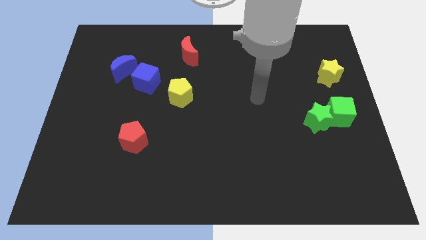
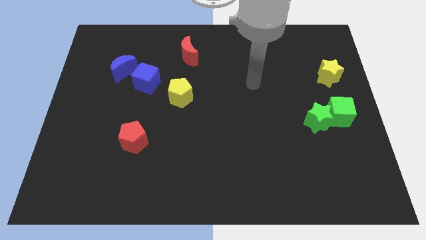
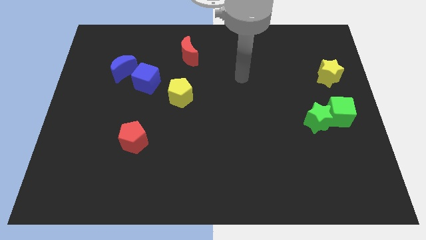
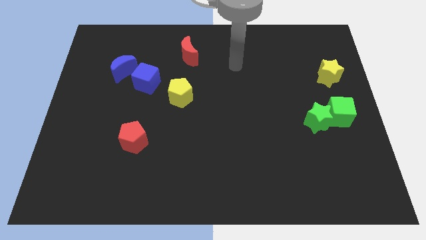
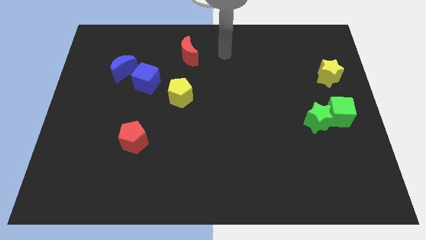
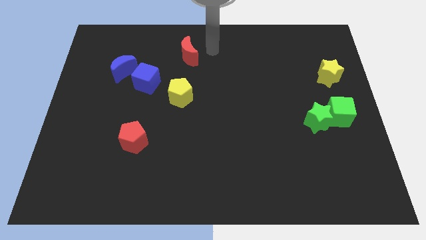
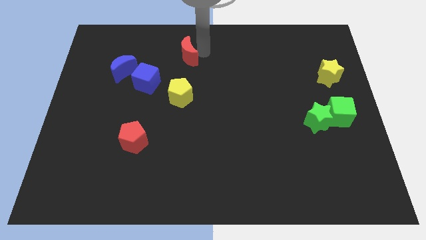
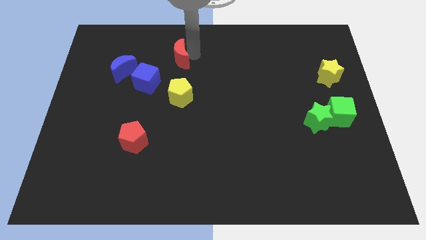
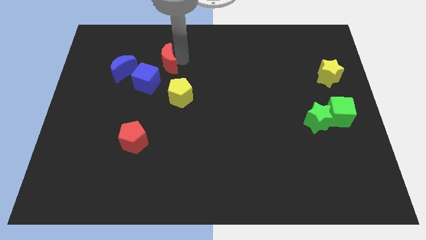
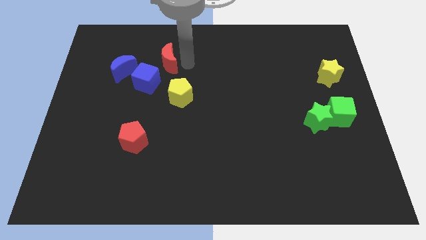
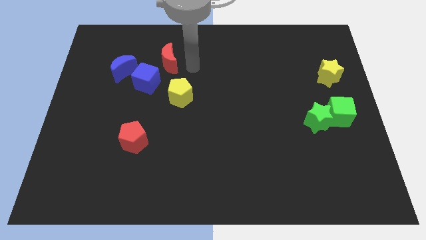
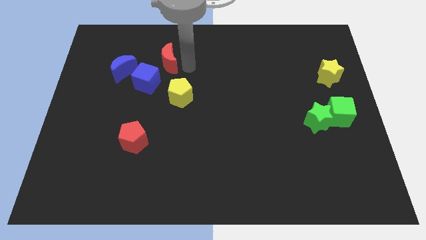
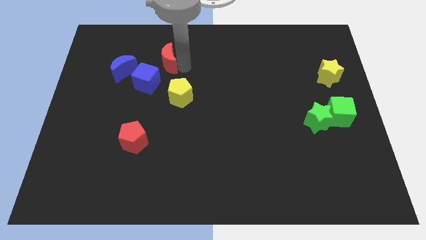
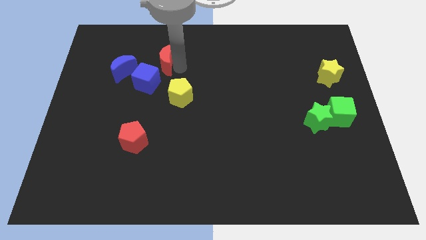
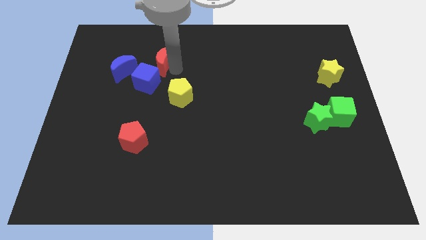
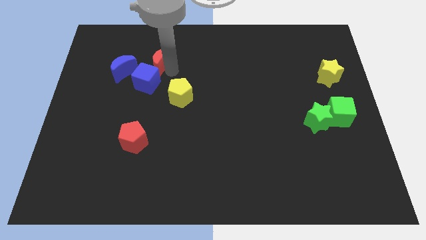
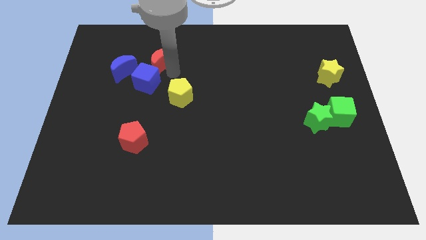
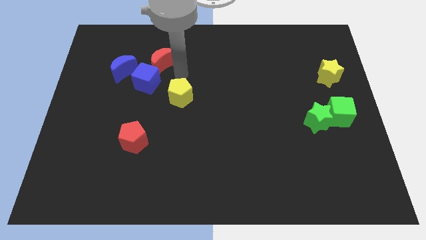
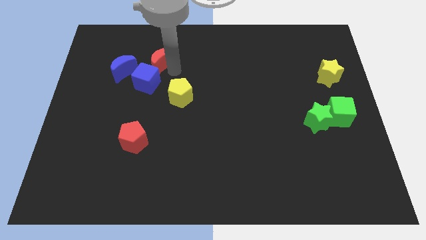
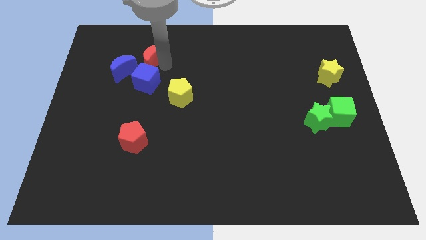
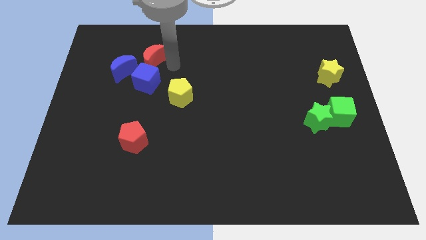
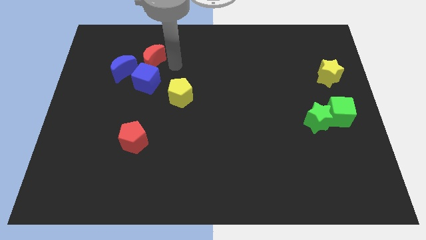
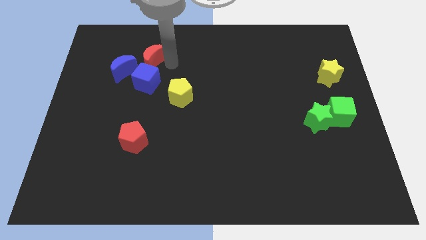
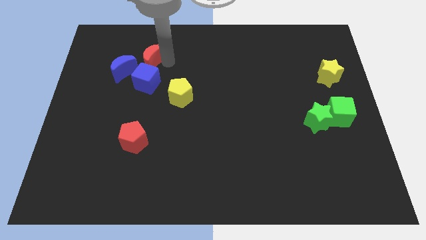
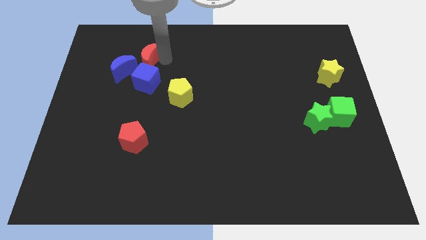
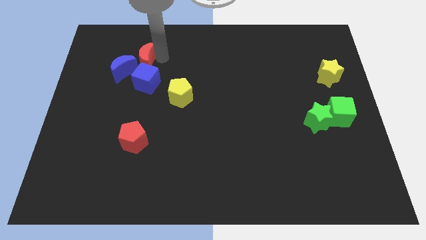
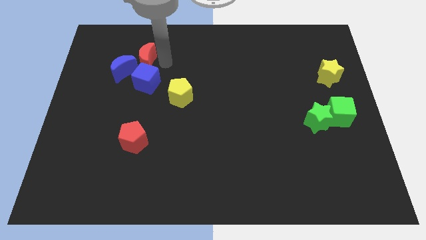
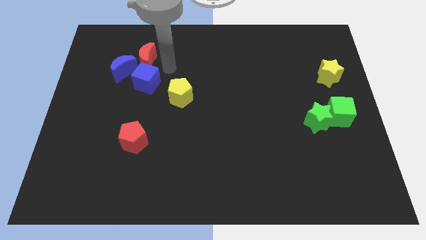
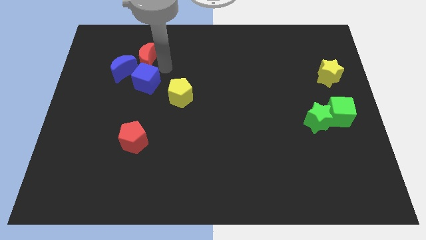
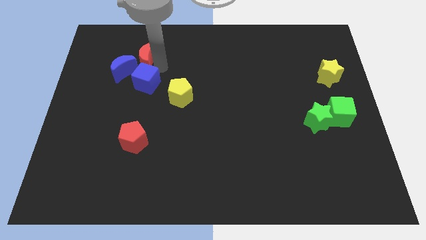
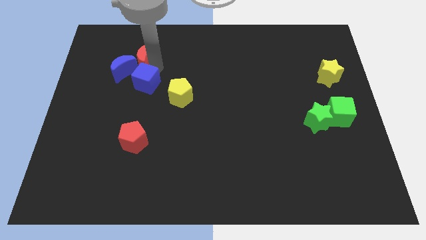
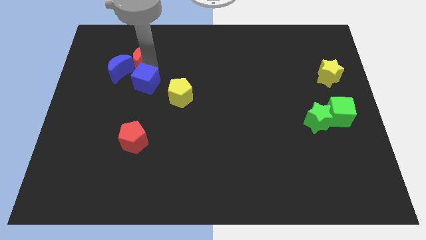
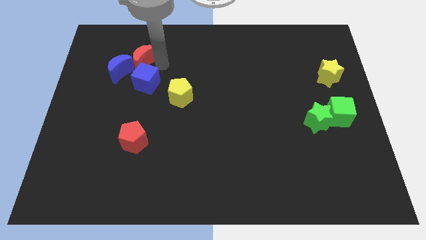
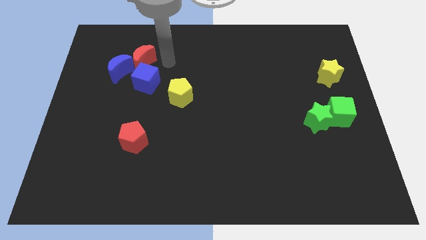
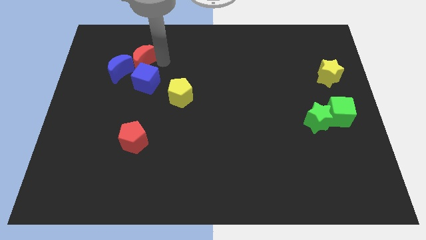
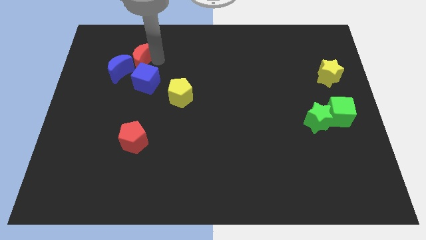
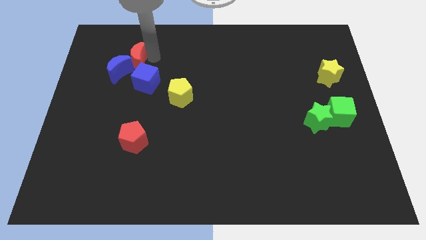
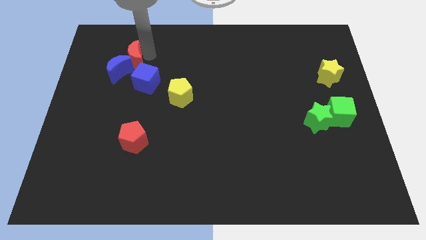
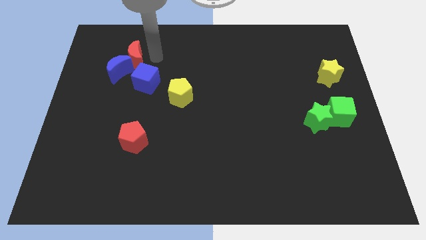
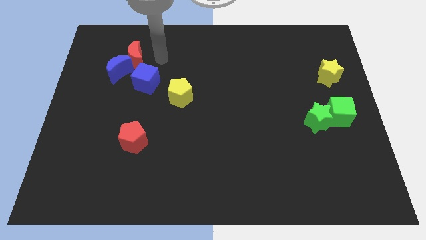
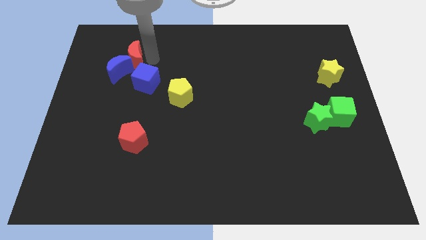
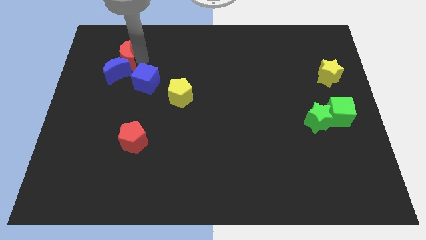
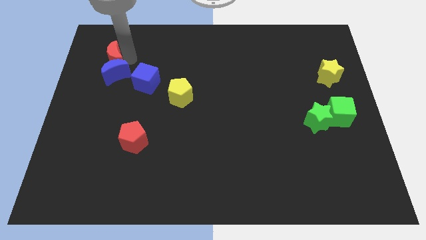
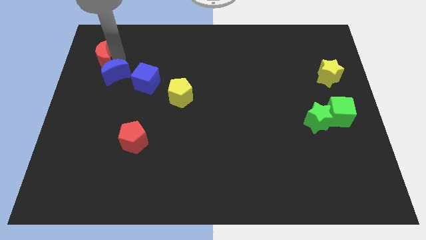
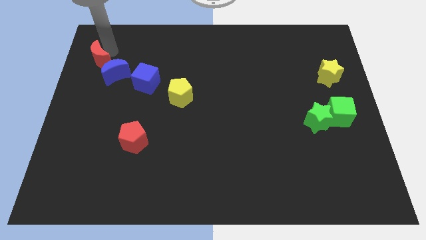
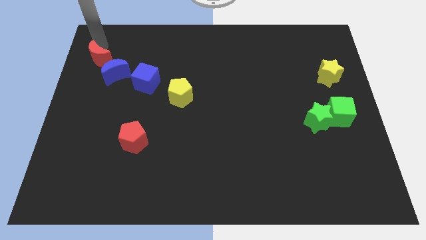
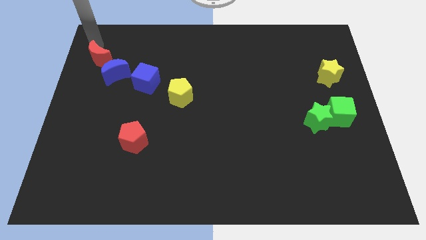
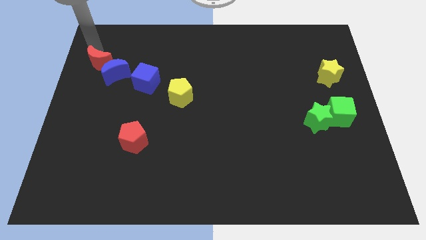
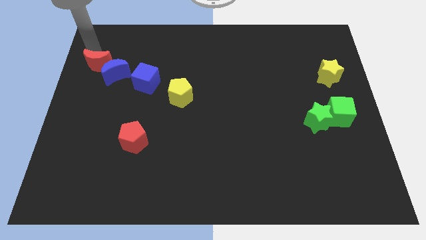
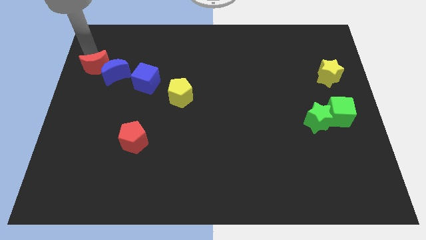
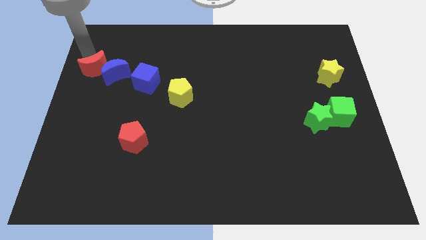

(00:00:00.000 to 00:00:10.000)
put the red moon just left of the blue cube

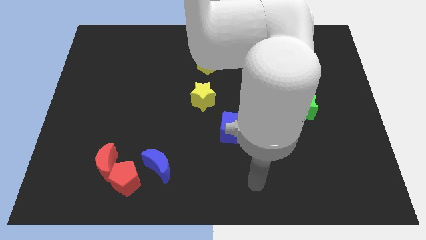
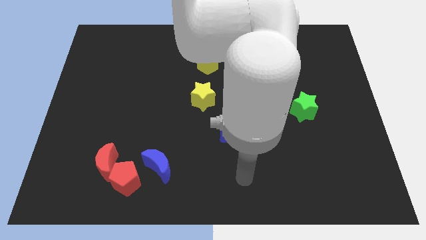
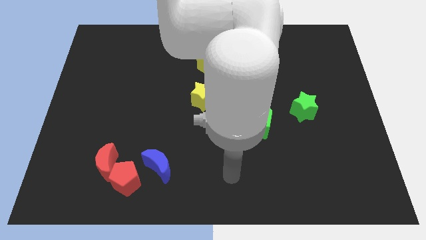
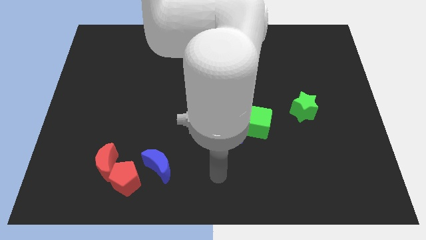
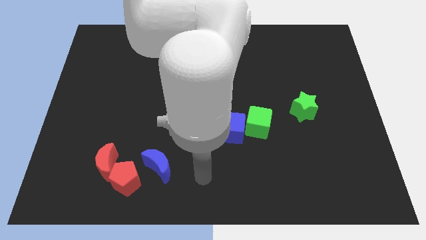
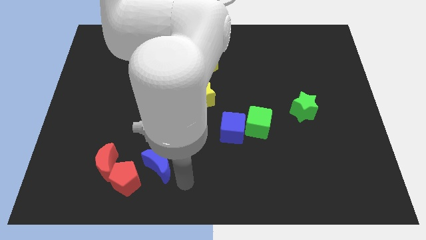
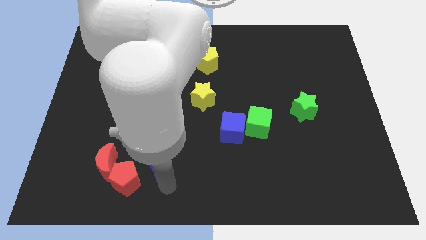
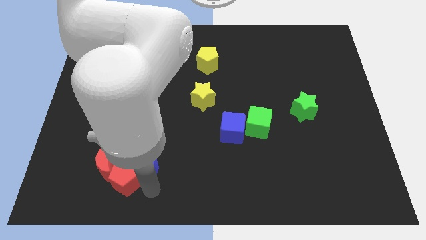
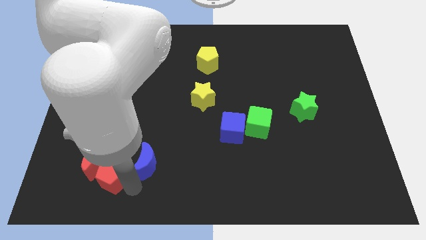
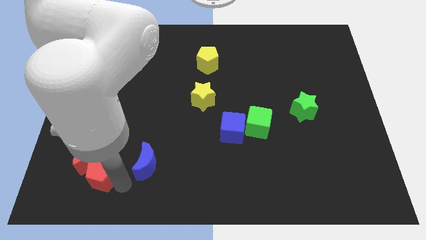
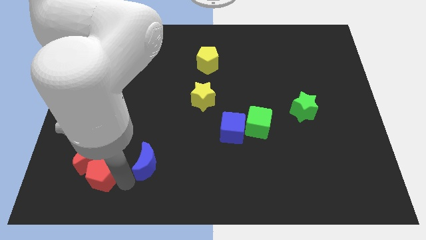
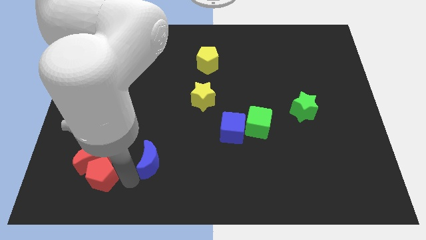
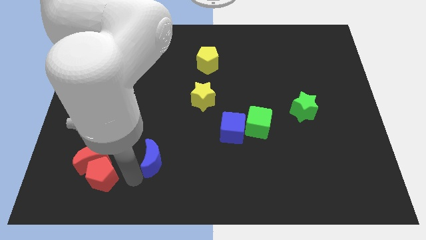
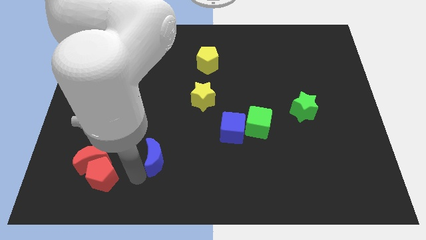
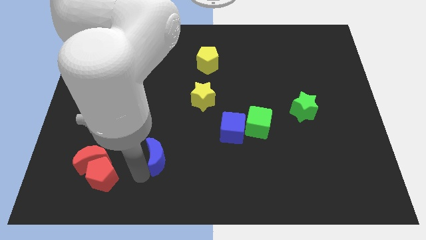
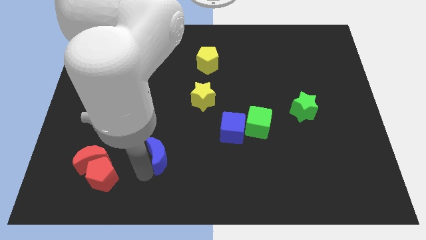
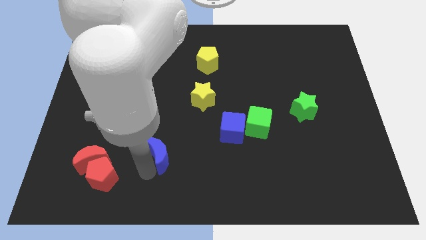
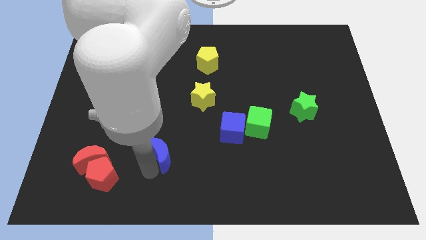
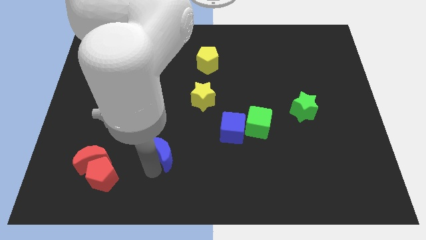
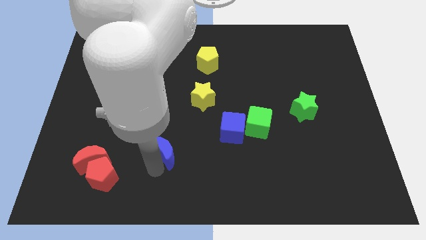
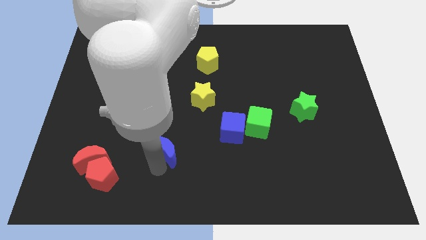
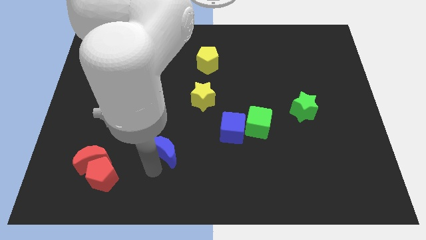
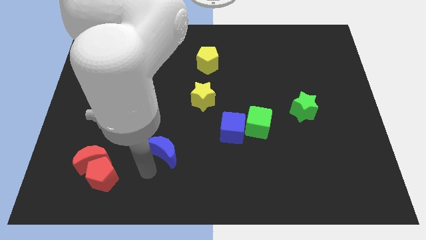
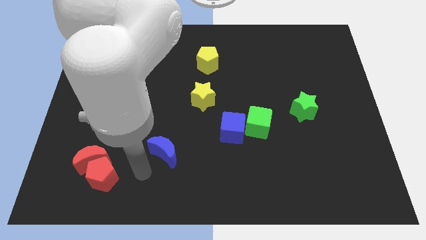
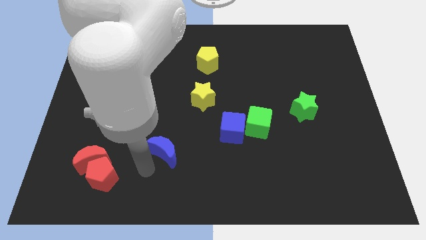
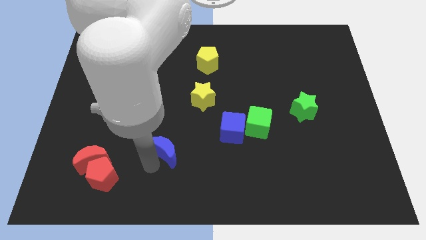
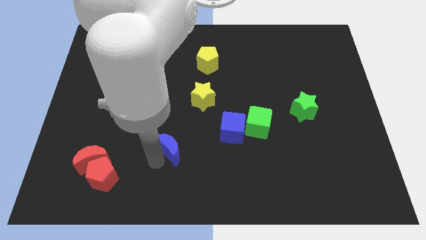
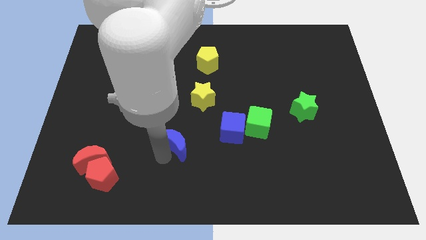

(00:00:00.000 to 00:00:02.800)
slide the blue moon to the left side of the blue cube
